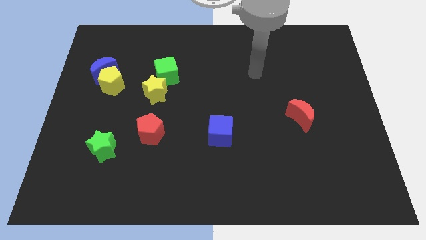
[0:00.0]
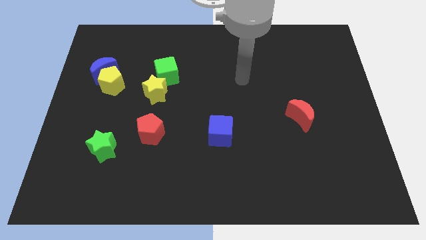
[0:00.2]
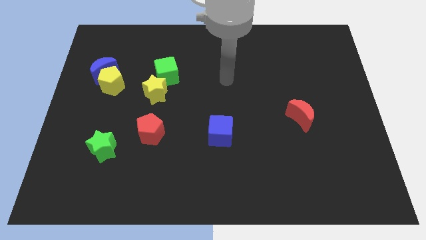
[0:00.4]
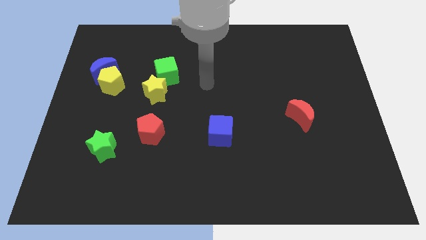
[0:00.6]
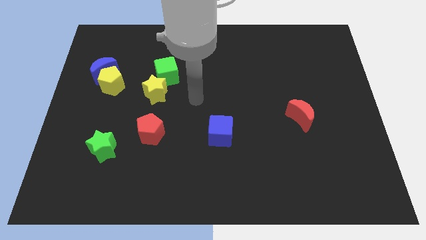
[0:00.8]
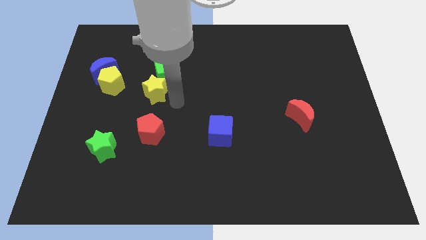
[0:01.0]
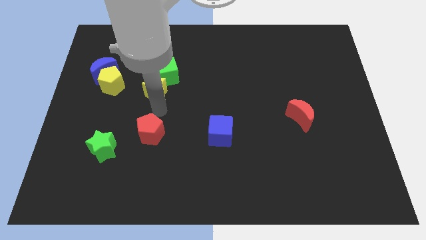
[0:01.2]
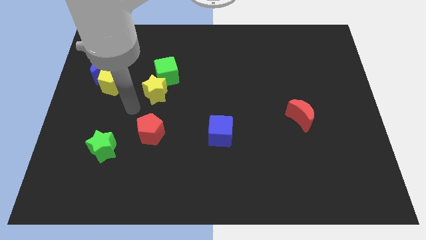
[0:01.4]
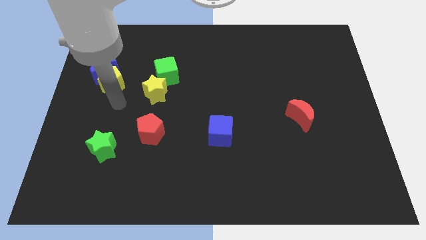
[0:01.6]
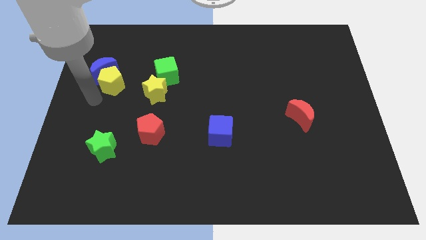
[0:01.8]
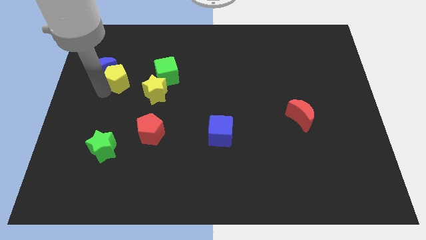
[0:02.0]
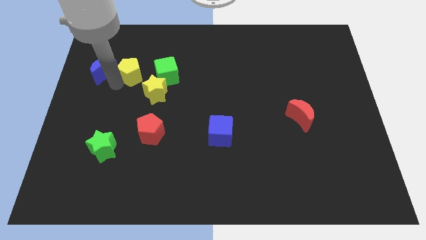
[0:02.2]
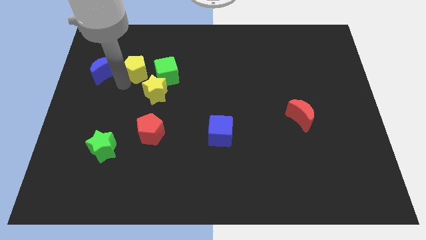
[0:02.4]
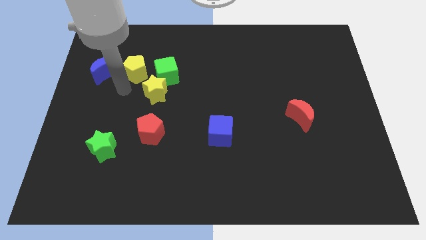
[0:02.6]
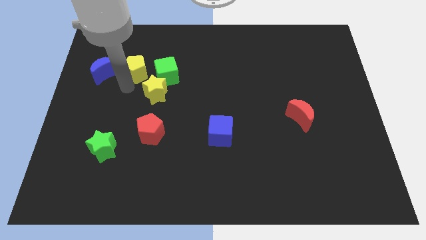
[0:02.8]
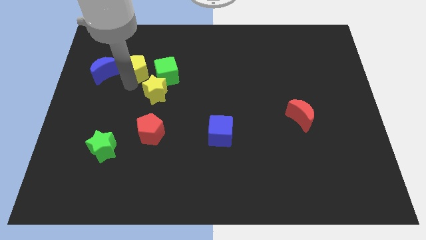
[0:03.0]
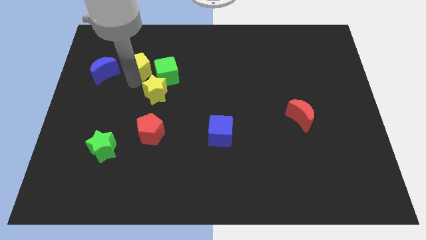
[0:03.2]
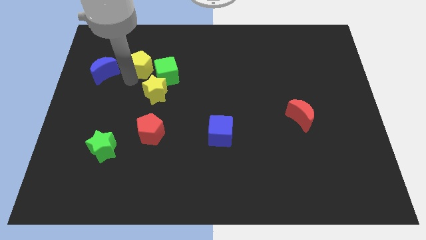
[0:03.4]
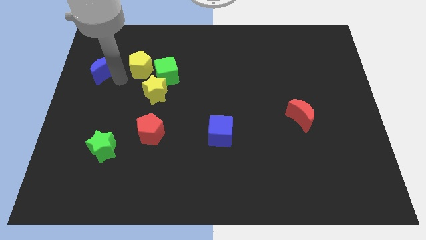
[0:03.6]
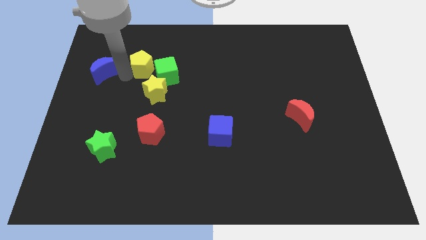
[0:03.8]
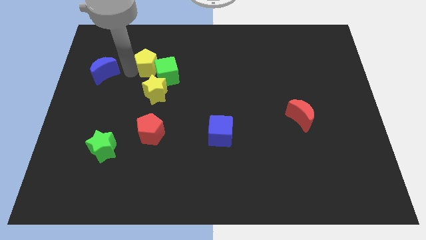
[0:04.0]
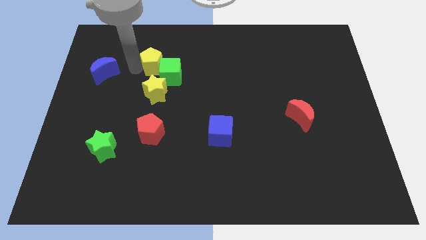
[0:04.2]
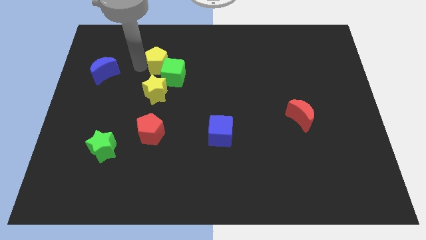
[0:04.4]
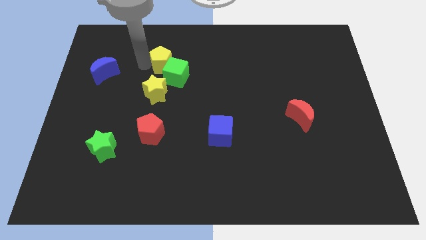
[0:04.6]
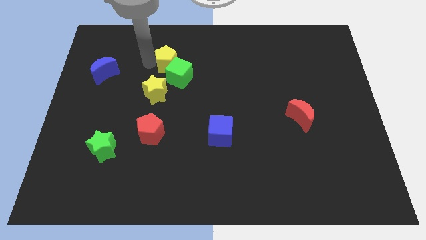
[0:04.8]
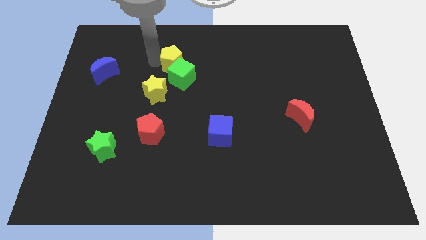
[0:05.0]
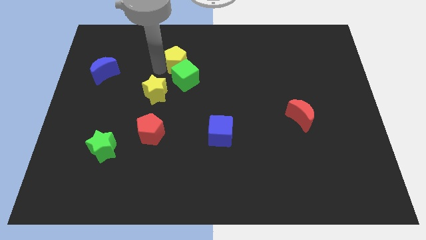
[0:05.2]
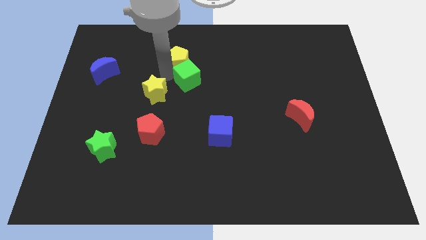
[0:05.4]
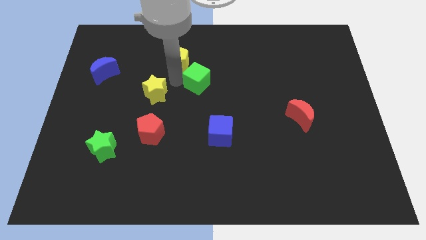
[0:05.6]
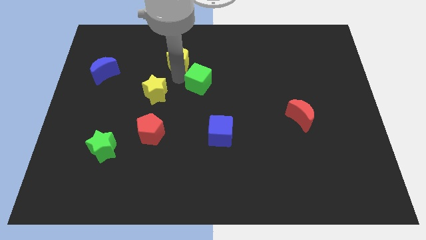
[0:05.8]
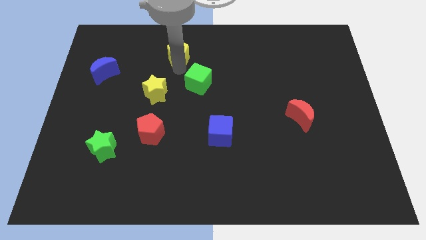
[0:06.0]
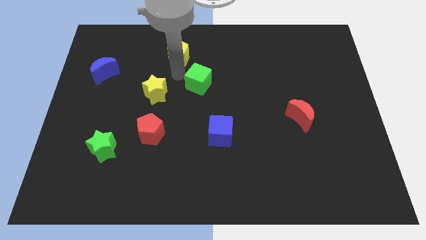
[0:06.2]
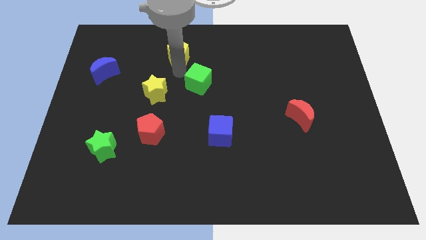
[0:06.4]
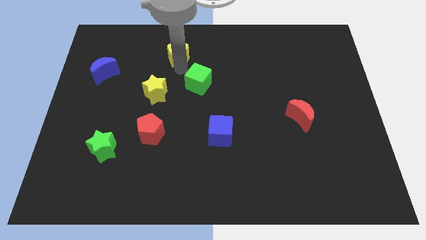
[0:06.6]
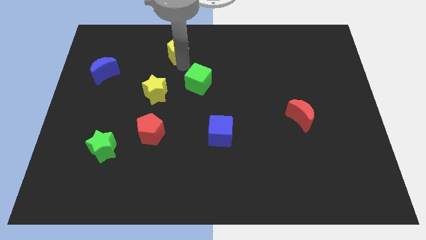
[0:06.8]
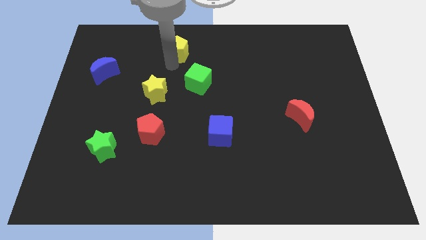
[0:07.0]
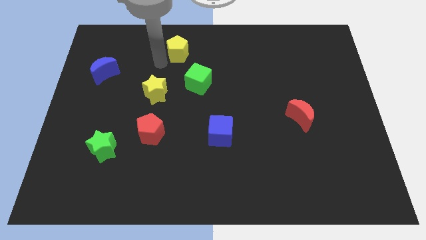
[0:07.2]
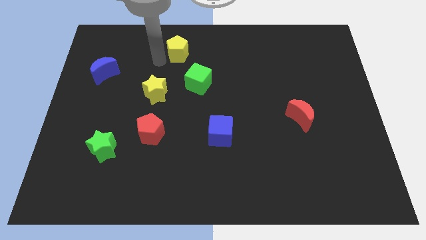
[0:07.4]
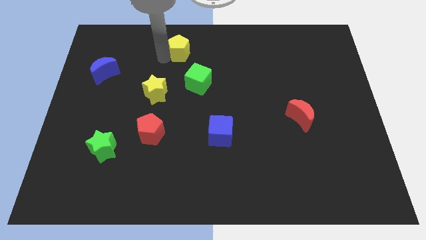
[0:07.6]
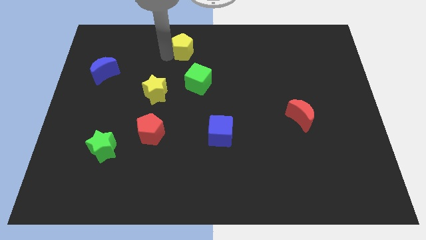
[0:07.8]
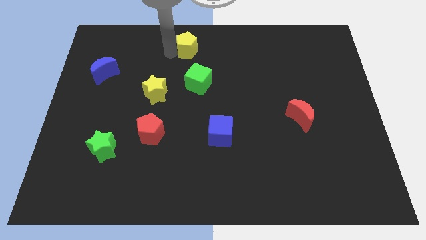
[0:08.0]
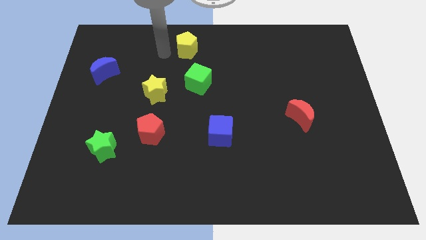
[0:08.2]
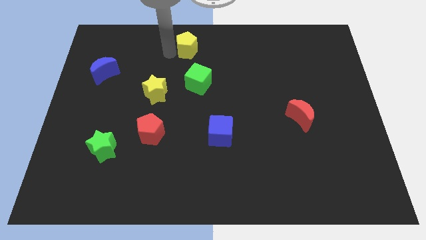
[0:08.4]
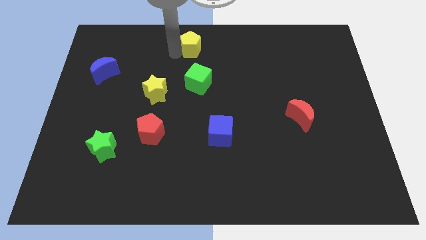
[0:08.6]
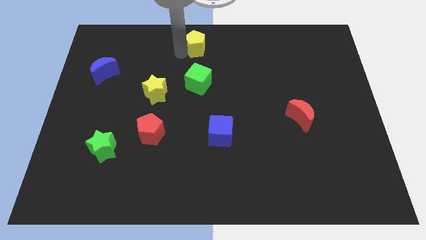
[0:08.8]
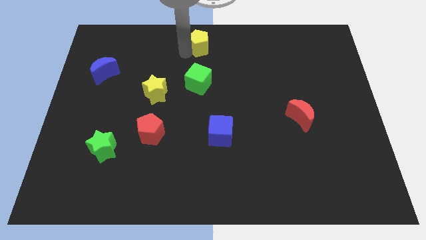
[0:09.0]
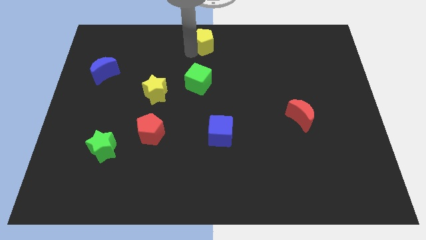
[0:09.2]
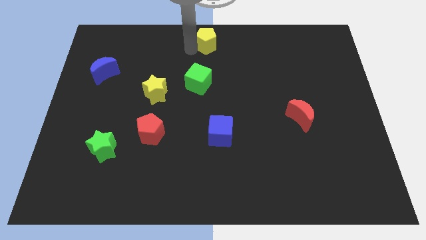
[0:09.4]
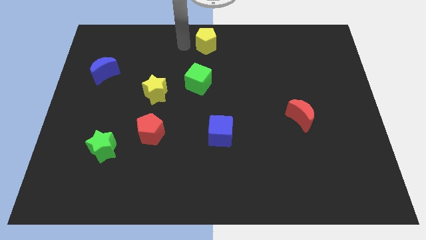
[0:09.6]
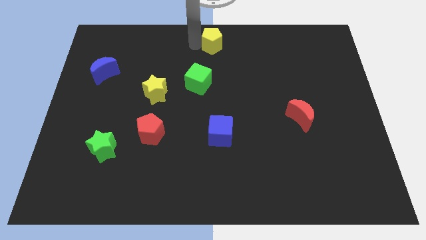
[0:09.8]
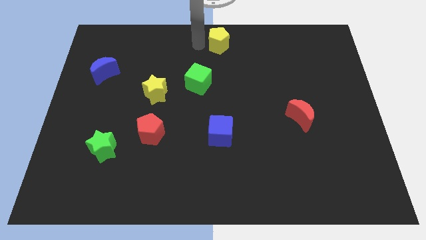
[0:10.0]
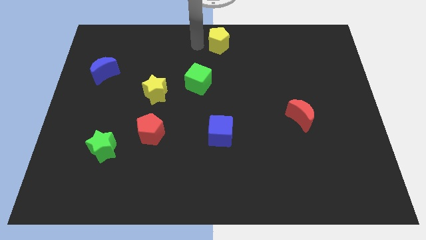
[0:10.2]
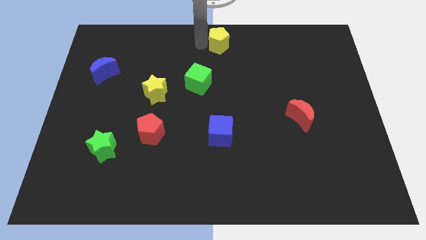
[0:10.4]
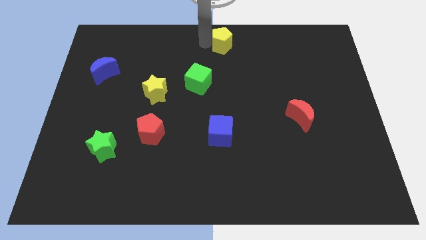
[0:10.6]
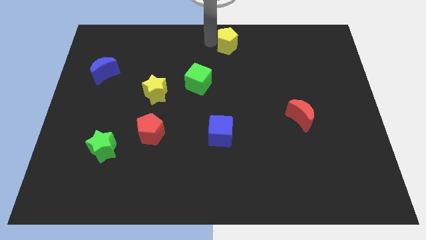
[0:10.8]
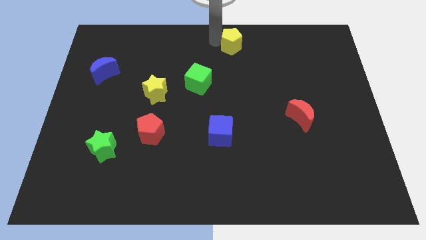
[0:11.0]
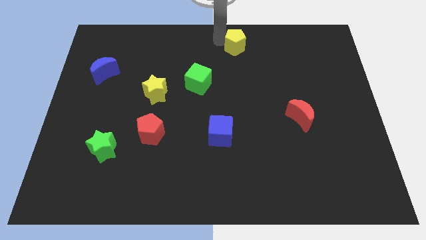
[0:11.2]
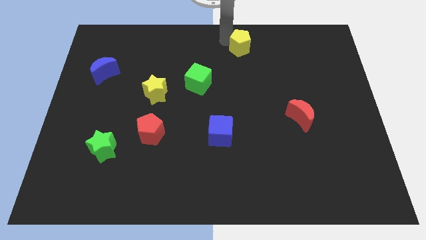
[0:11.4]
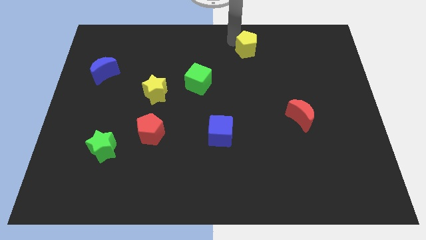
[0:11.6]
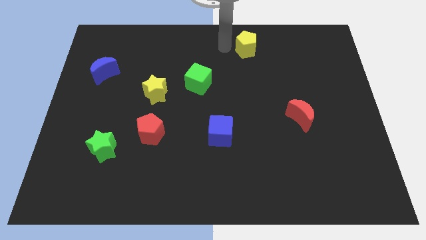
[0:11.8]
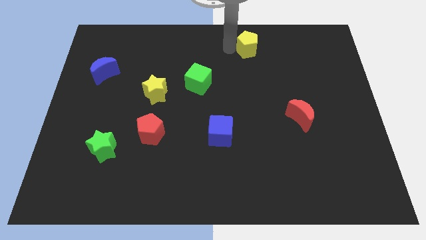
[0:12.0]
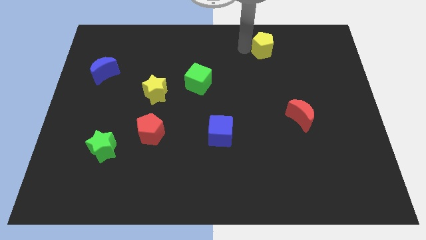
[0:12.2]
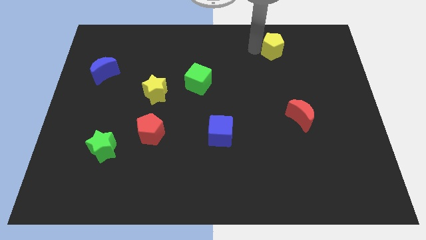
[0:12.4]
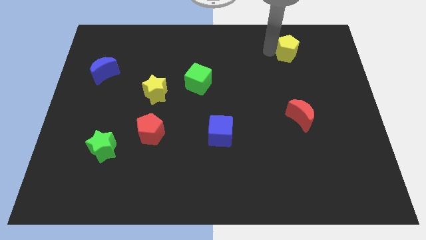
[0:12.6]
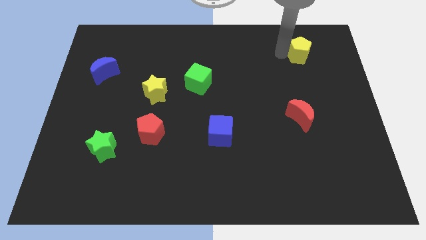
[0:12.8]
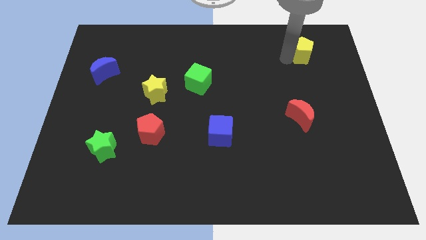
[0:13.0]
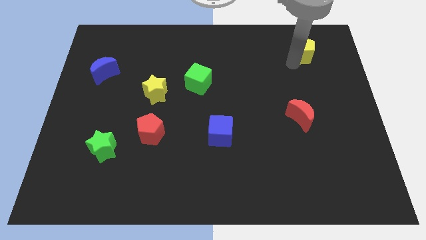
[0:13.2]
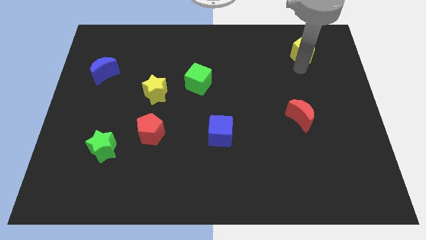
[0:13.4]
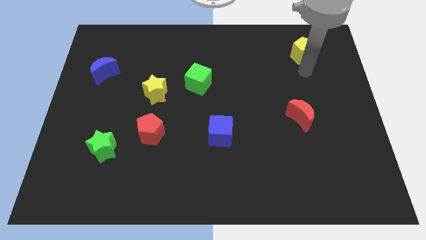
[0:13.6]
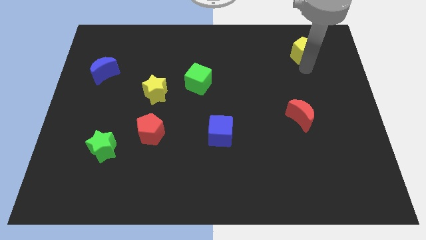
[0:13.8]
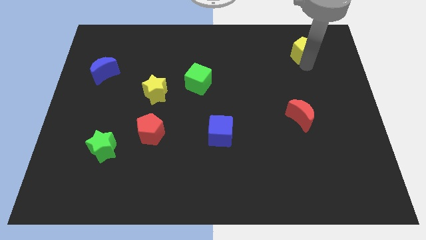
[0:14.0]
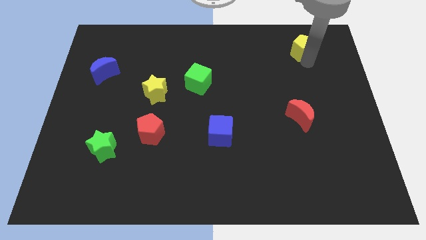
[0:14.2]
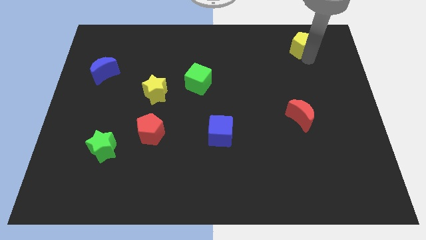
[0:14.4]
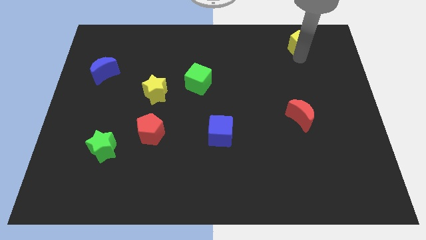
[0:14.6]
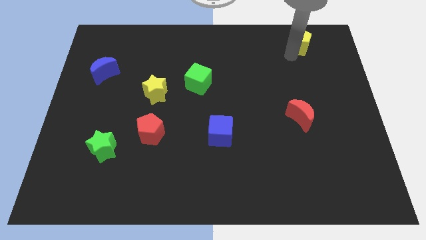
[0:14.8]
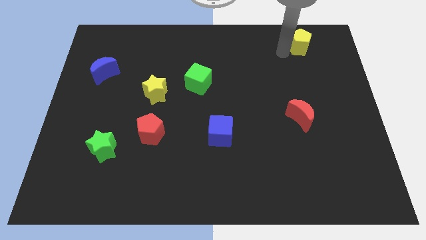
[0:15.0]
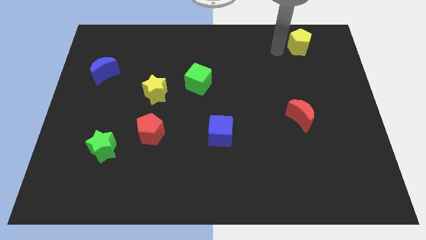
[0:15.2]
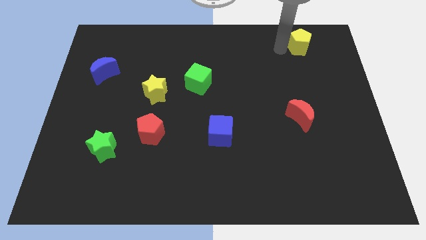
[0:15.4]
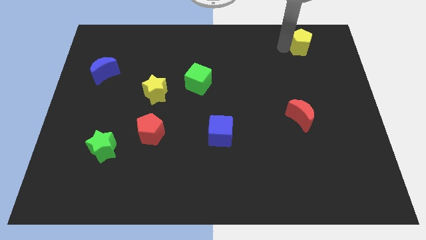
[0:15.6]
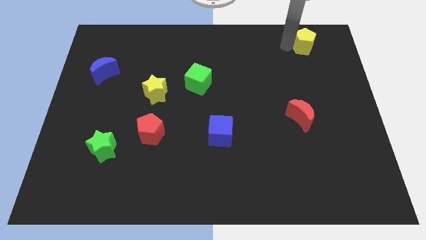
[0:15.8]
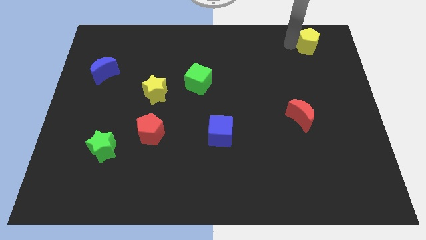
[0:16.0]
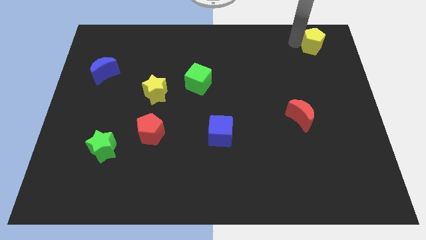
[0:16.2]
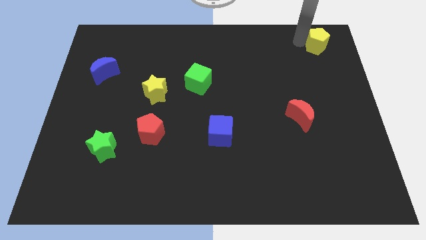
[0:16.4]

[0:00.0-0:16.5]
move the yellow pentagon to the top right corner
